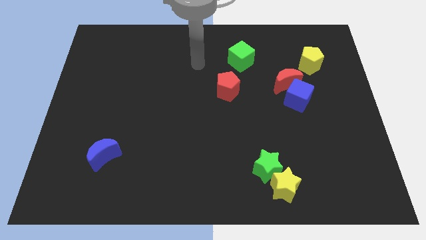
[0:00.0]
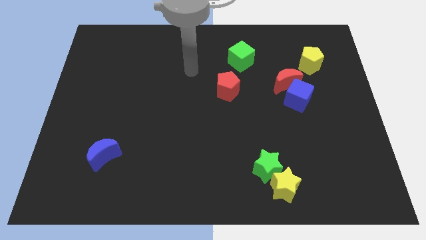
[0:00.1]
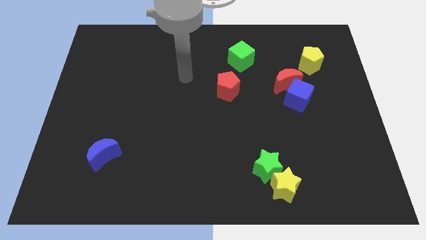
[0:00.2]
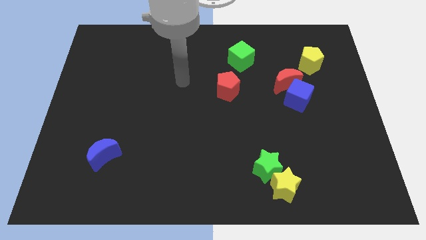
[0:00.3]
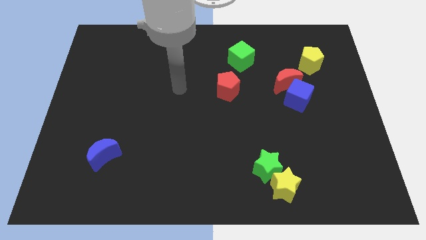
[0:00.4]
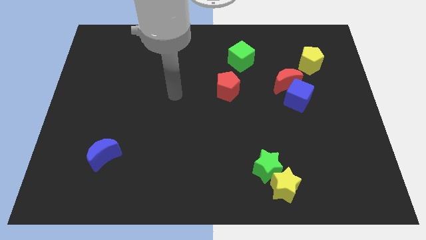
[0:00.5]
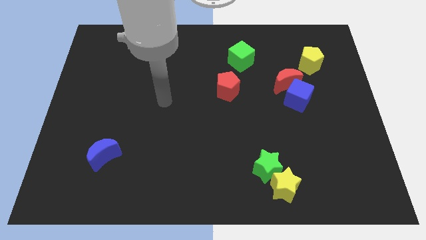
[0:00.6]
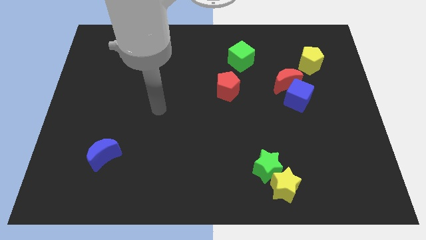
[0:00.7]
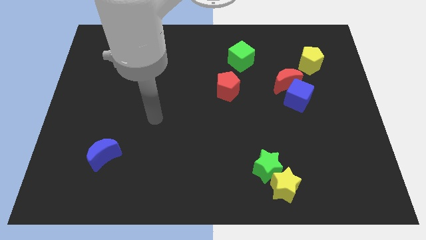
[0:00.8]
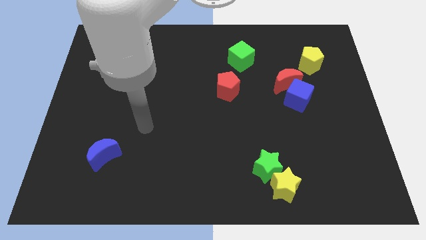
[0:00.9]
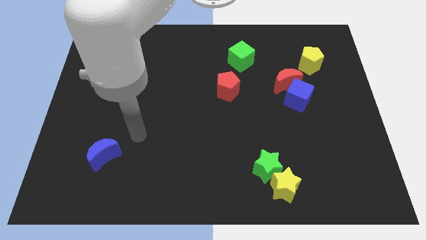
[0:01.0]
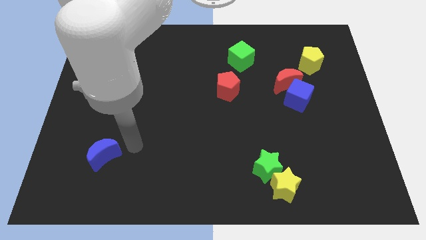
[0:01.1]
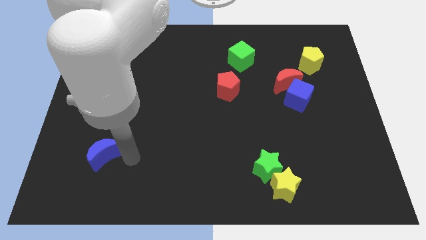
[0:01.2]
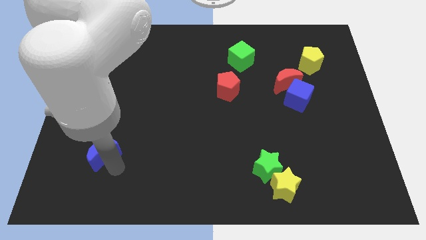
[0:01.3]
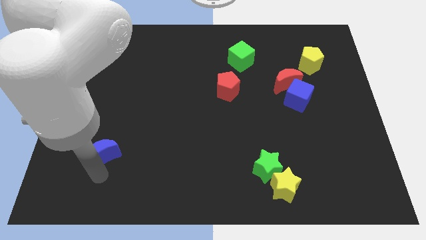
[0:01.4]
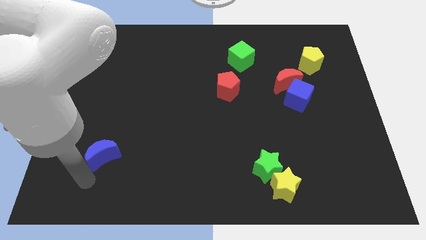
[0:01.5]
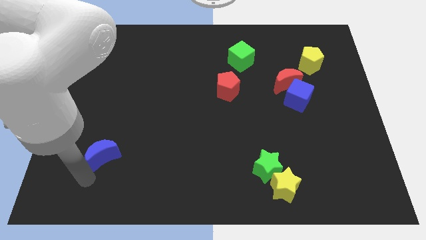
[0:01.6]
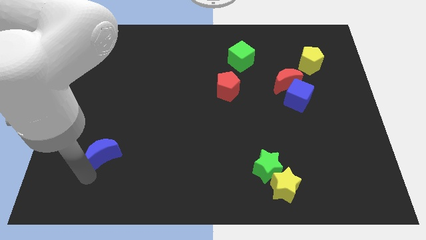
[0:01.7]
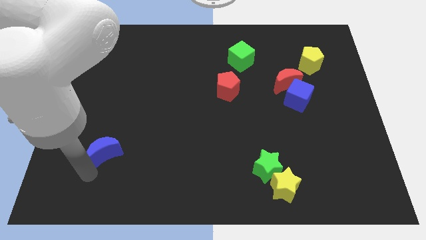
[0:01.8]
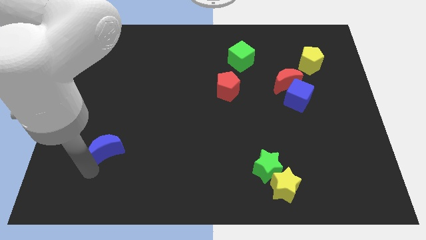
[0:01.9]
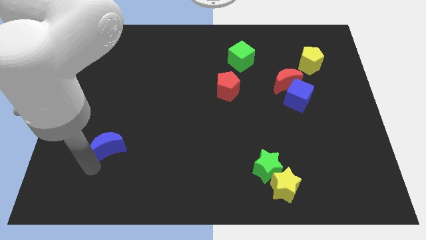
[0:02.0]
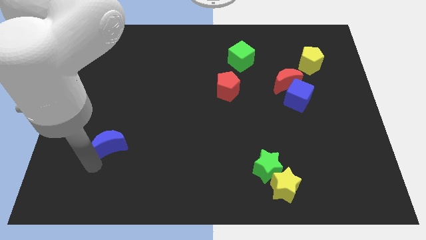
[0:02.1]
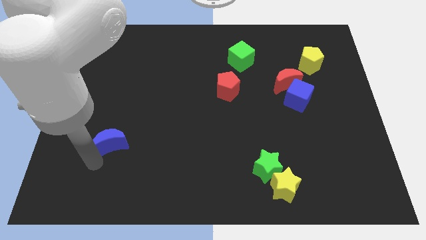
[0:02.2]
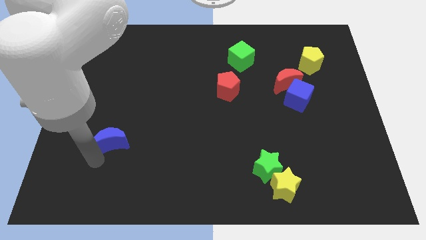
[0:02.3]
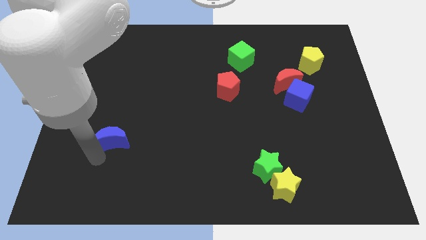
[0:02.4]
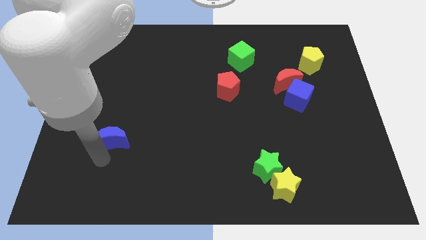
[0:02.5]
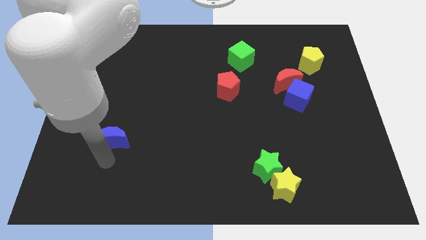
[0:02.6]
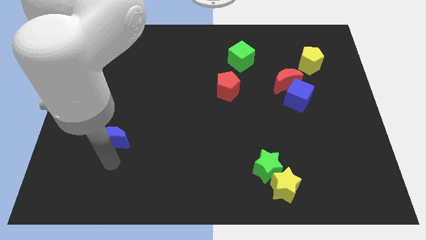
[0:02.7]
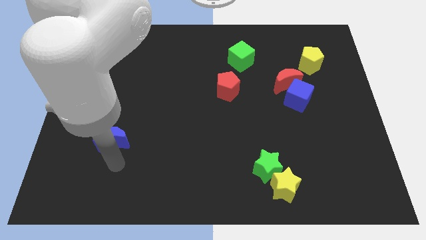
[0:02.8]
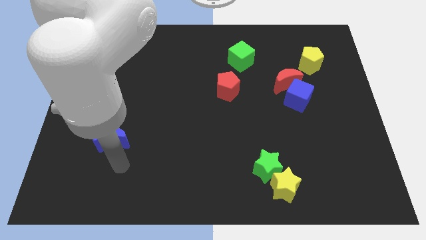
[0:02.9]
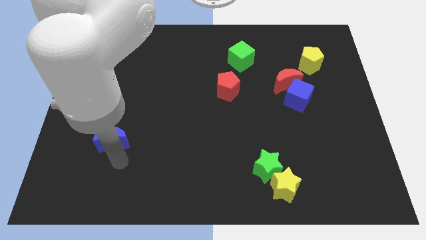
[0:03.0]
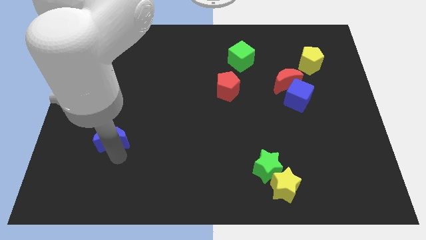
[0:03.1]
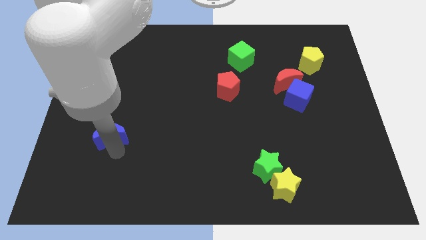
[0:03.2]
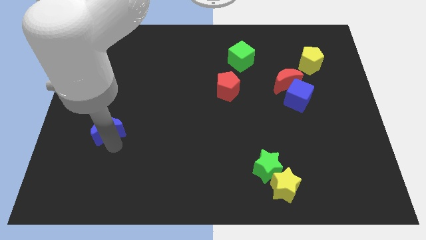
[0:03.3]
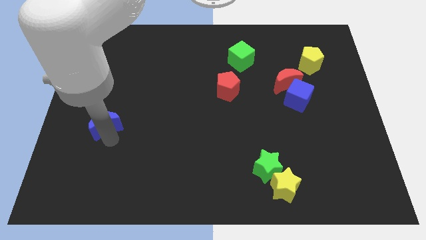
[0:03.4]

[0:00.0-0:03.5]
push the blue moon upwards a bit

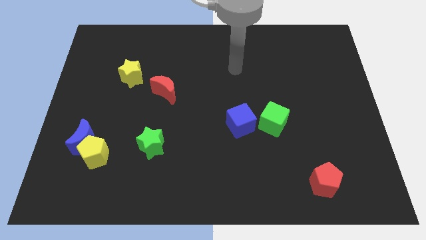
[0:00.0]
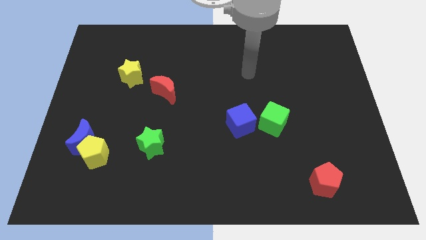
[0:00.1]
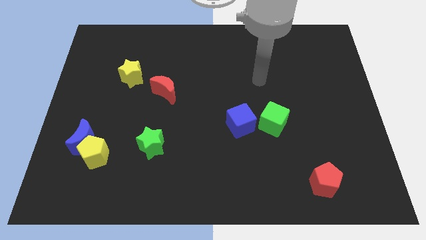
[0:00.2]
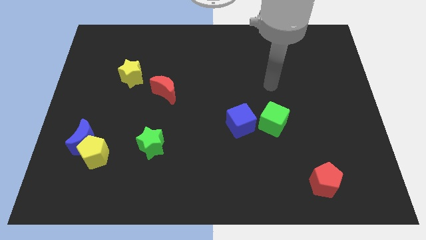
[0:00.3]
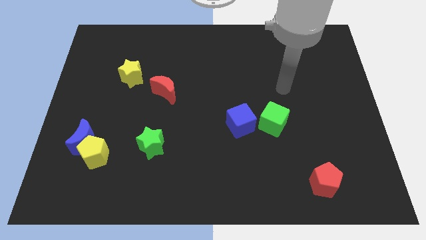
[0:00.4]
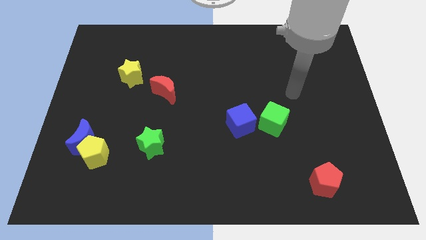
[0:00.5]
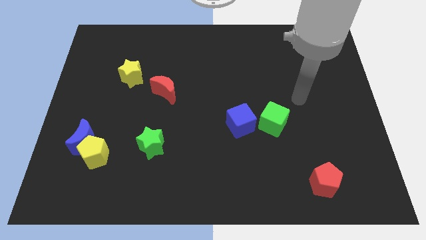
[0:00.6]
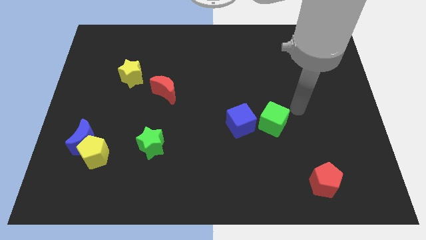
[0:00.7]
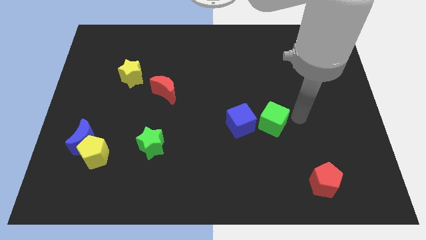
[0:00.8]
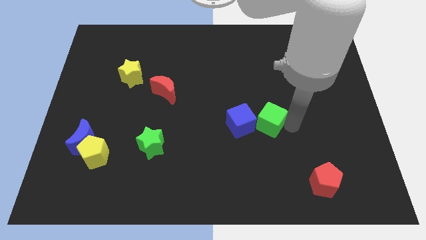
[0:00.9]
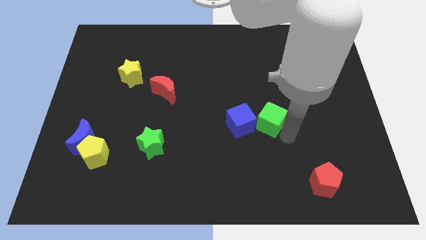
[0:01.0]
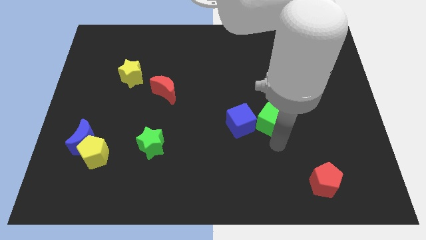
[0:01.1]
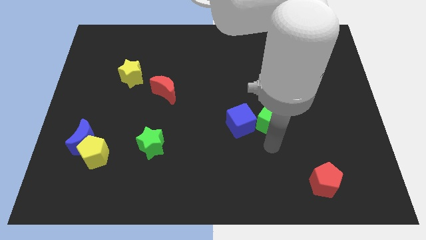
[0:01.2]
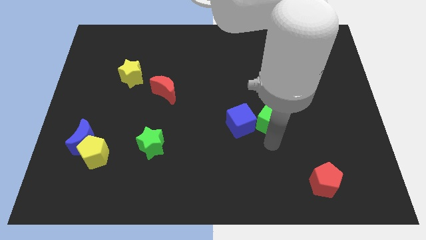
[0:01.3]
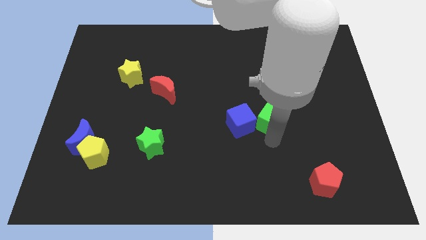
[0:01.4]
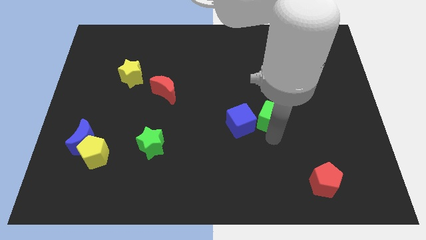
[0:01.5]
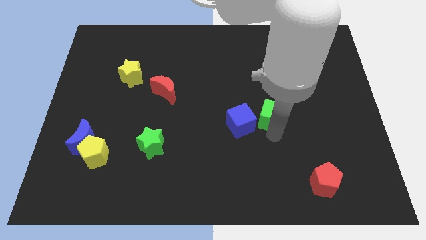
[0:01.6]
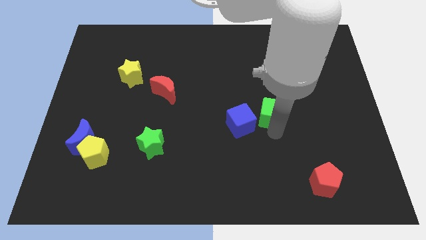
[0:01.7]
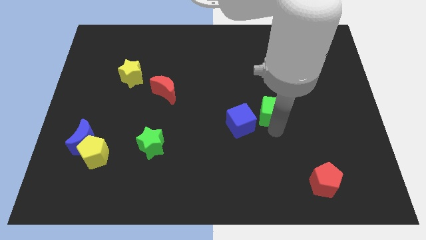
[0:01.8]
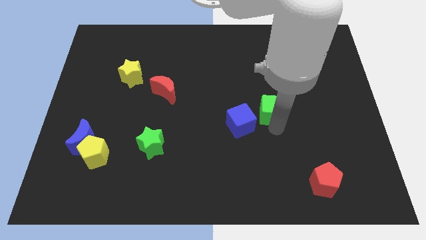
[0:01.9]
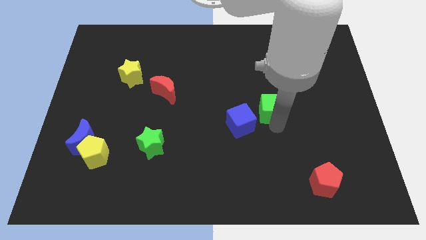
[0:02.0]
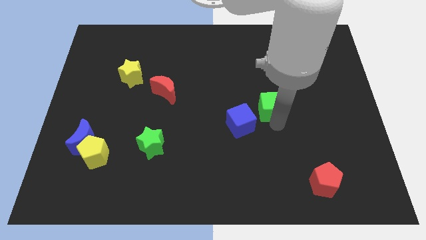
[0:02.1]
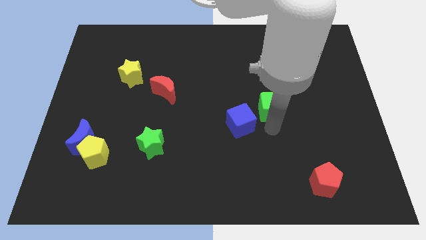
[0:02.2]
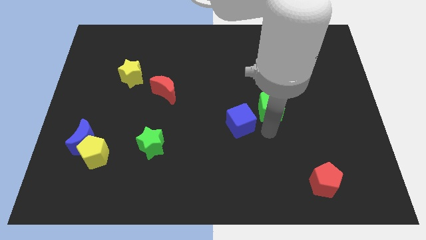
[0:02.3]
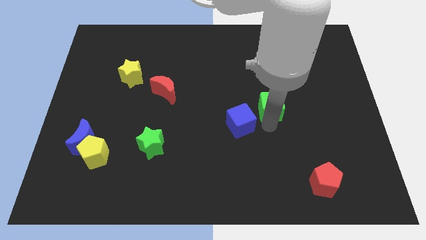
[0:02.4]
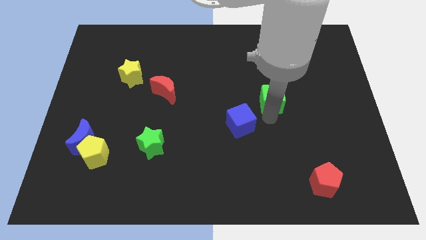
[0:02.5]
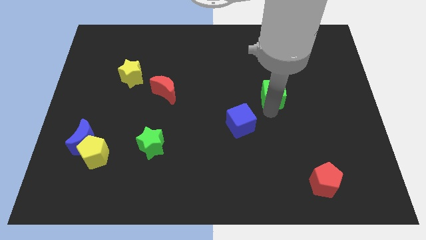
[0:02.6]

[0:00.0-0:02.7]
slightly move the green cube up

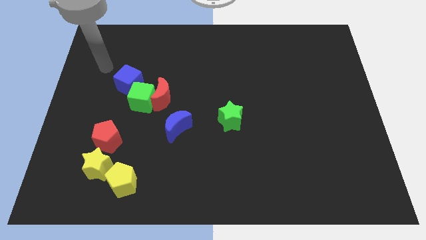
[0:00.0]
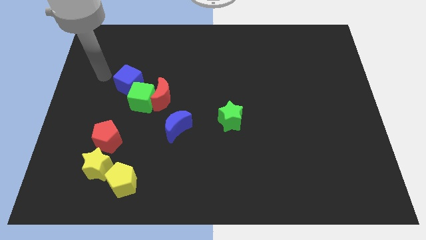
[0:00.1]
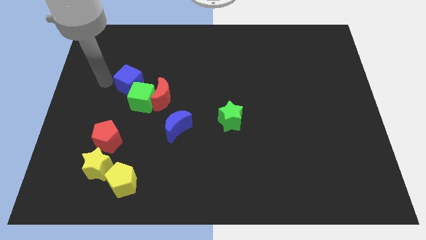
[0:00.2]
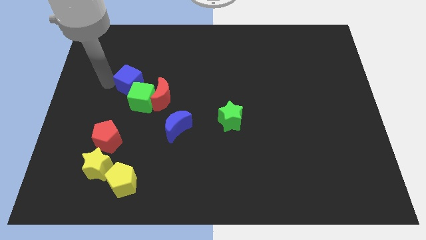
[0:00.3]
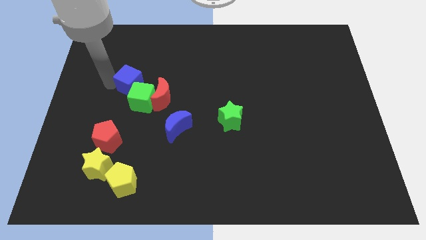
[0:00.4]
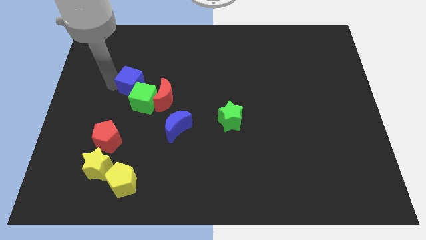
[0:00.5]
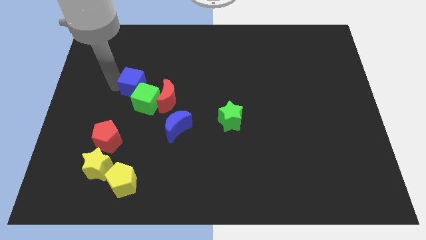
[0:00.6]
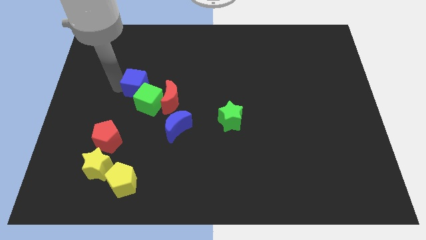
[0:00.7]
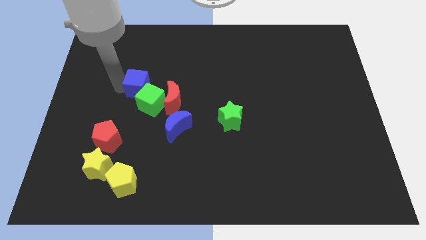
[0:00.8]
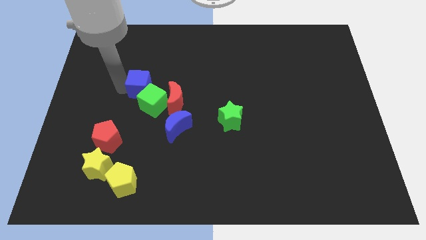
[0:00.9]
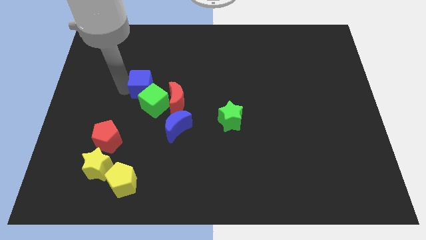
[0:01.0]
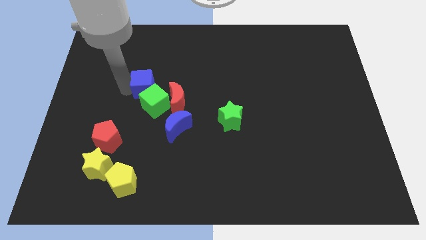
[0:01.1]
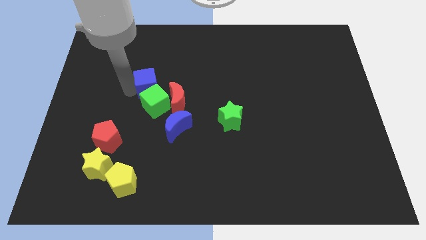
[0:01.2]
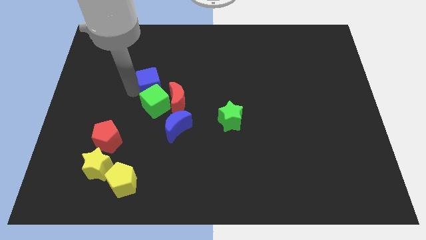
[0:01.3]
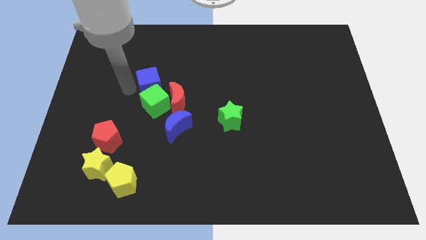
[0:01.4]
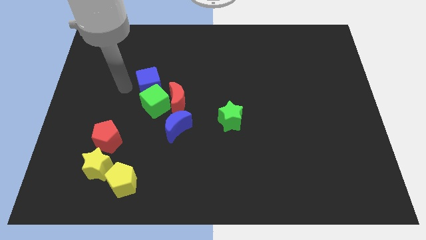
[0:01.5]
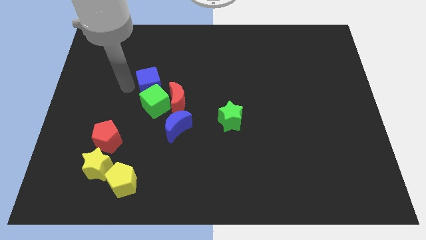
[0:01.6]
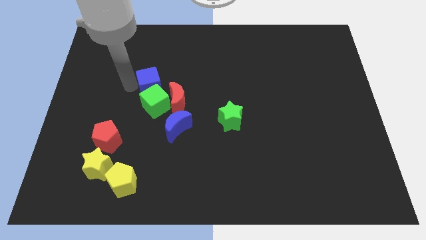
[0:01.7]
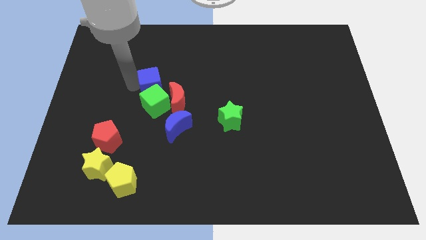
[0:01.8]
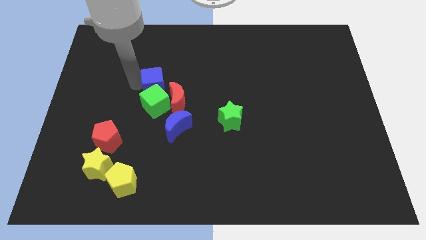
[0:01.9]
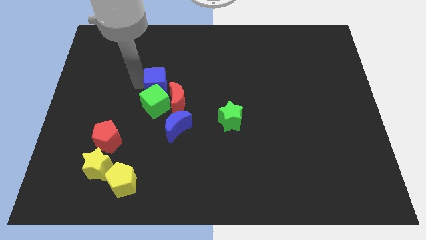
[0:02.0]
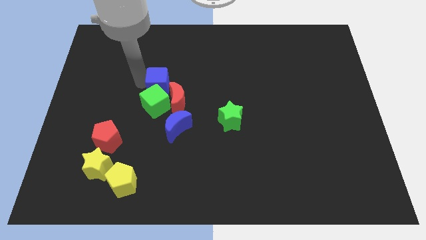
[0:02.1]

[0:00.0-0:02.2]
push the blue cube to the right somewhat
